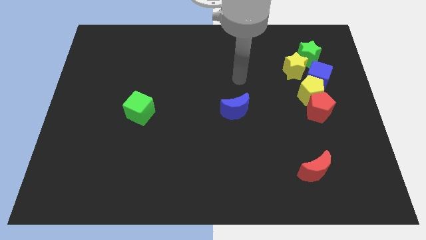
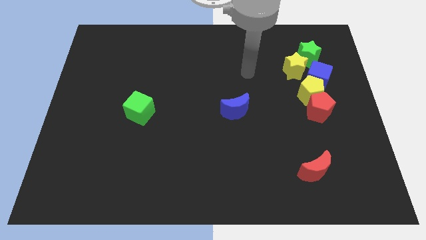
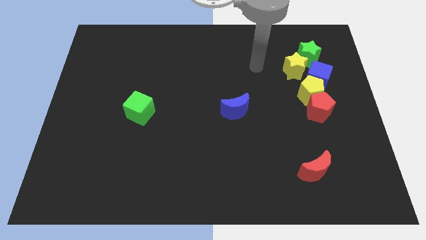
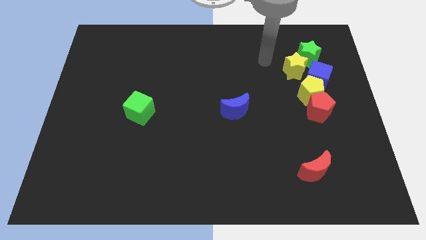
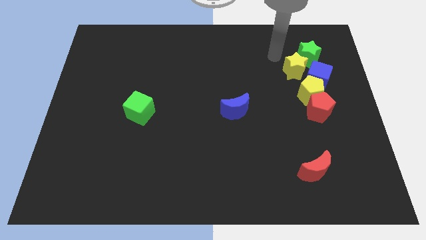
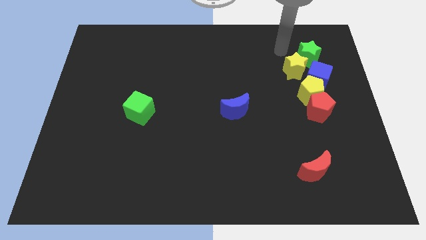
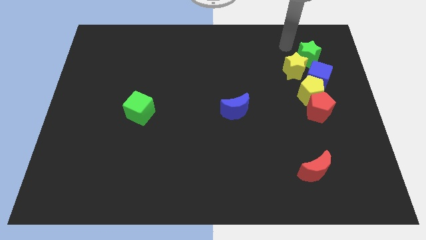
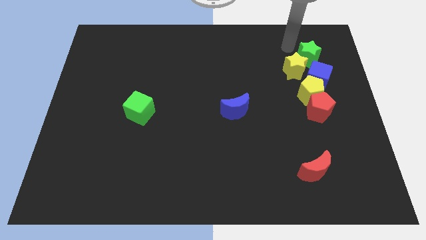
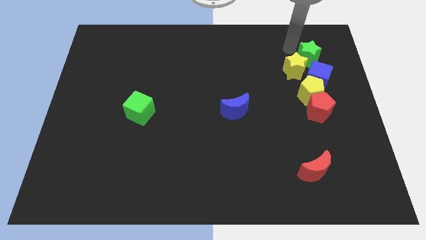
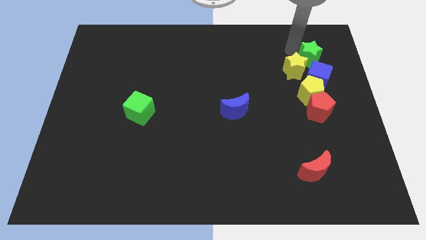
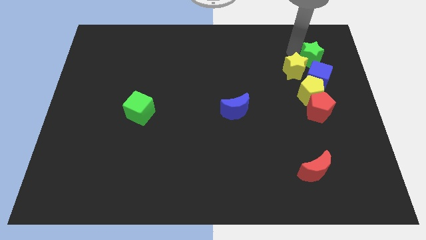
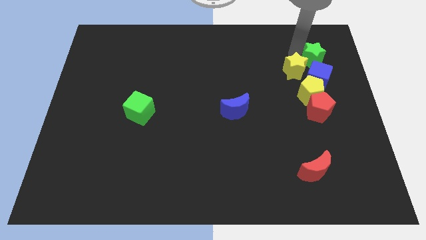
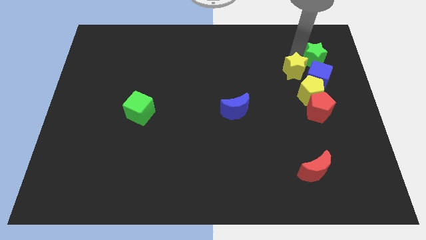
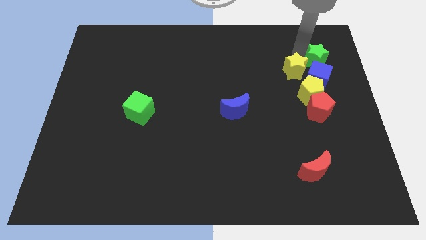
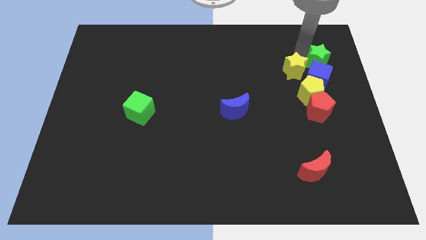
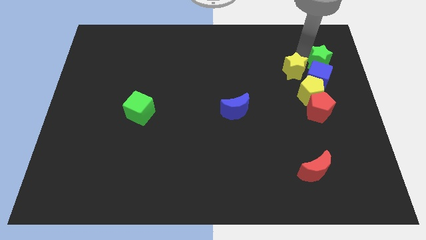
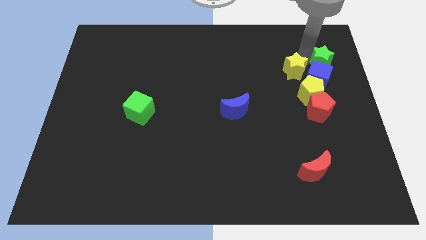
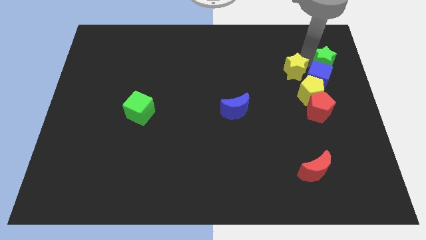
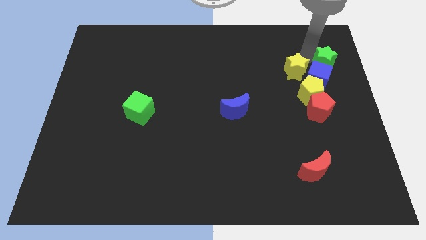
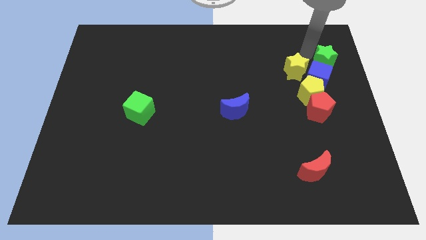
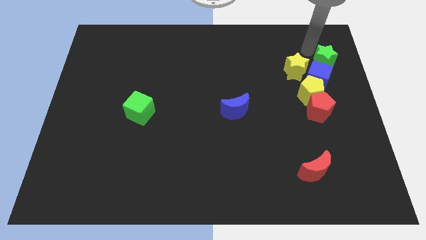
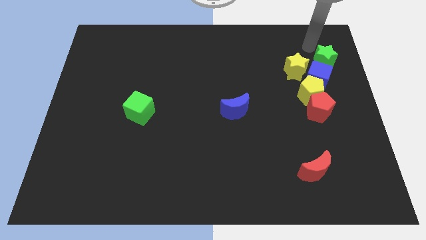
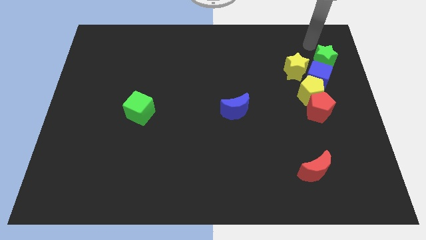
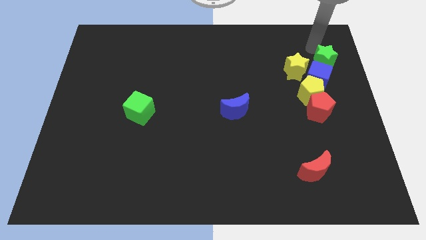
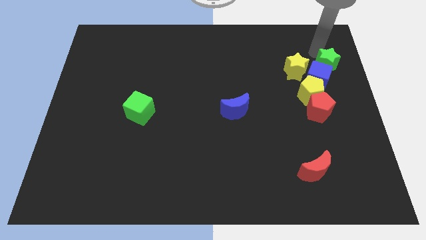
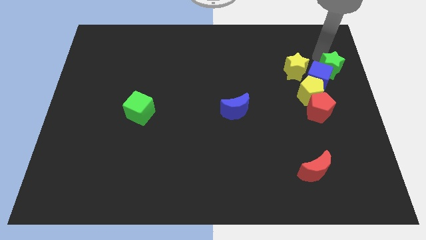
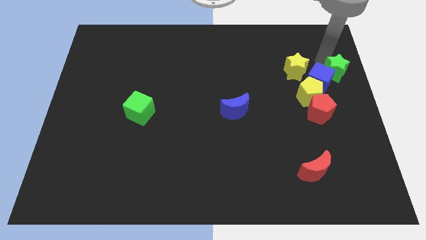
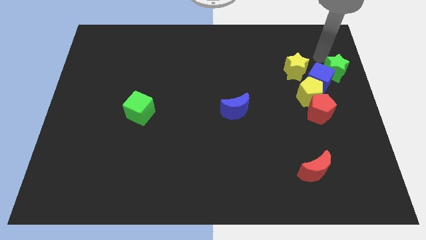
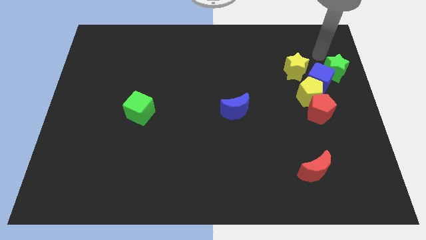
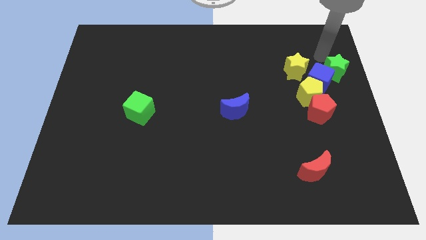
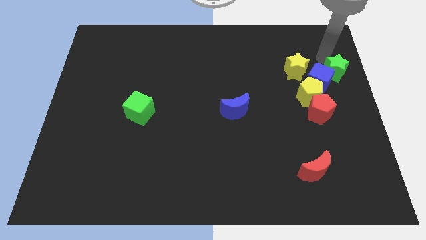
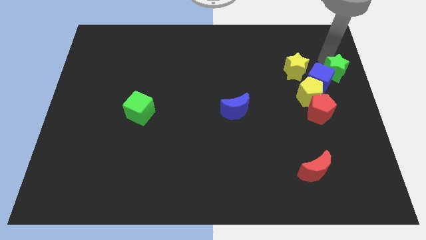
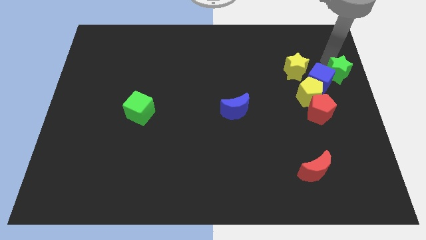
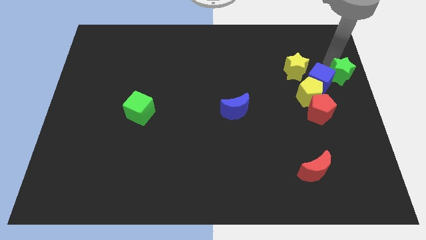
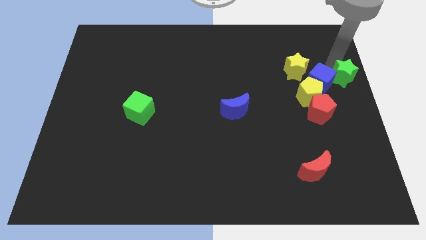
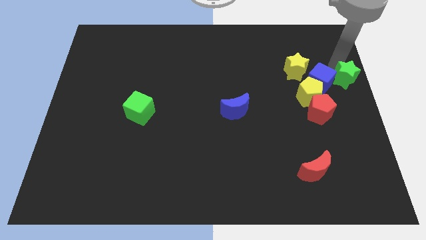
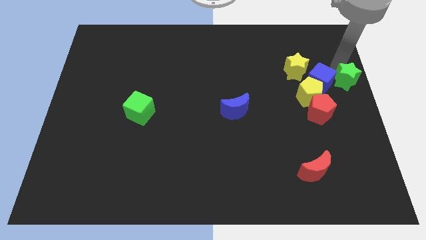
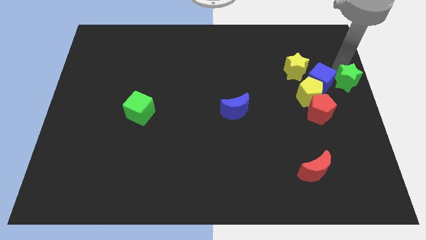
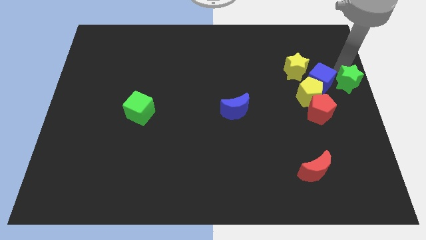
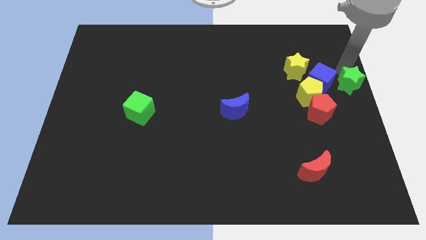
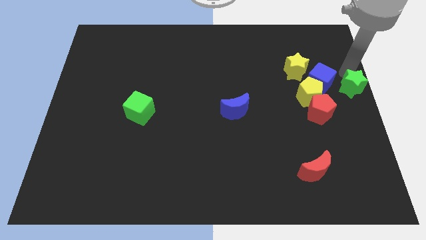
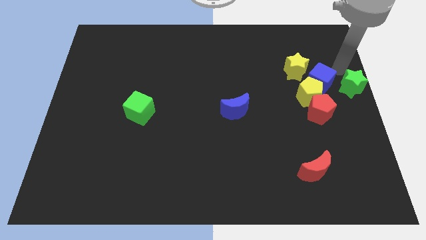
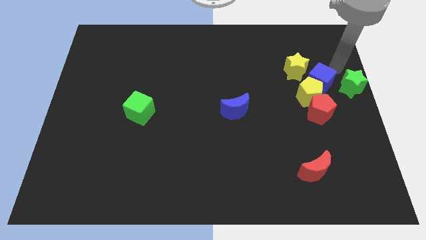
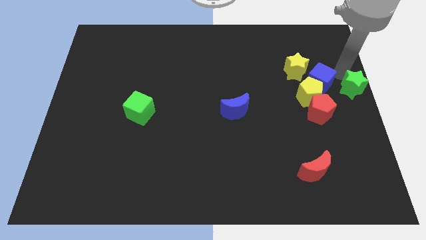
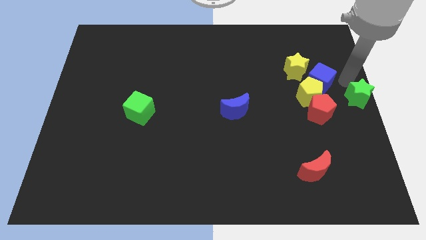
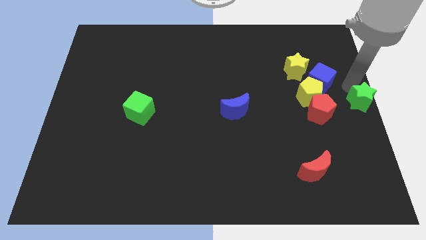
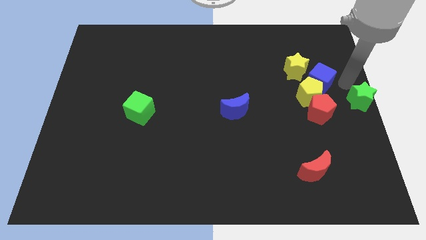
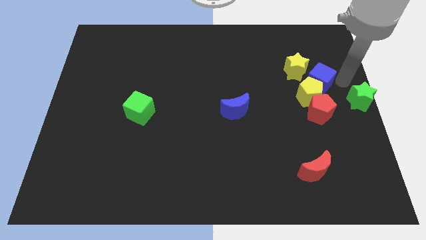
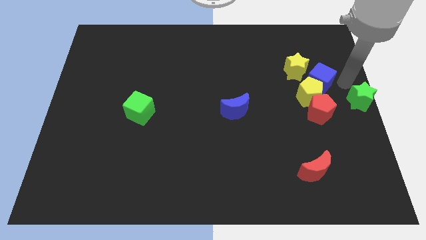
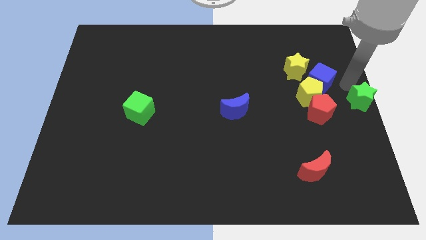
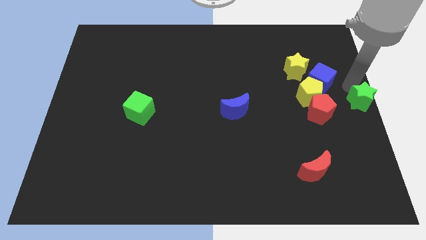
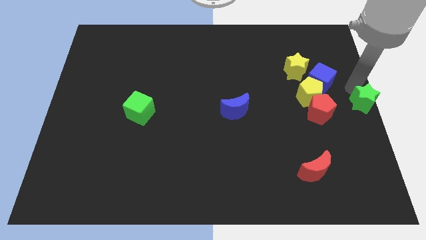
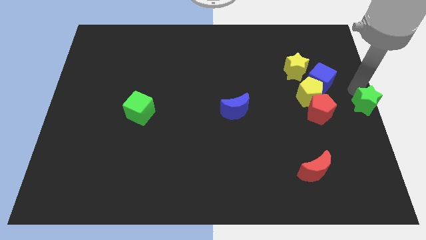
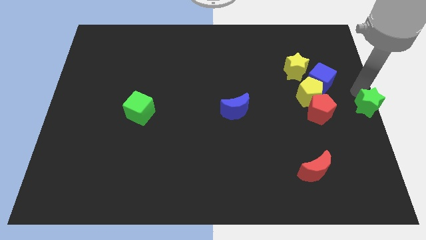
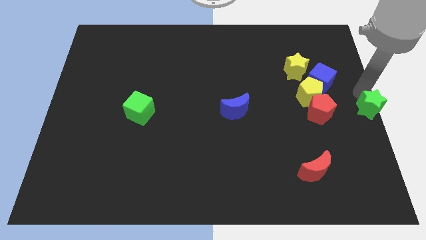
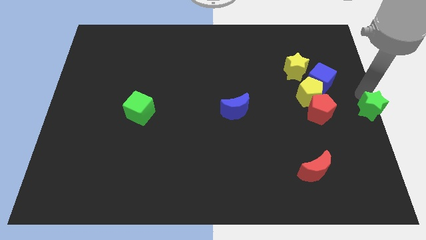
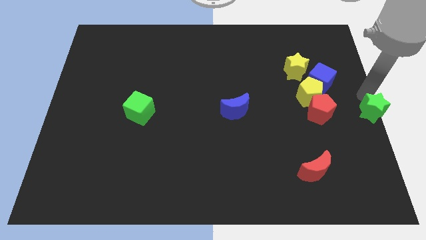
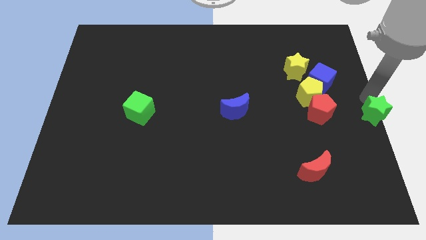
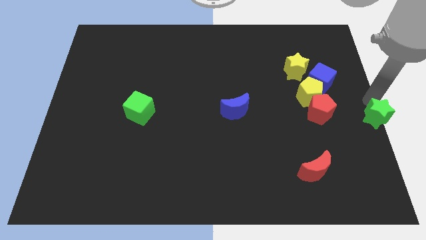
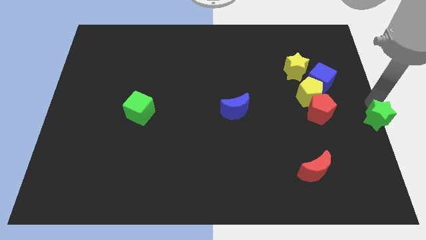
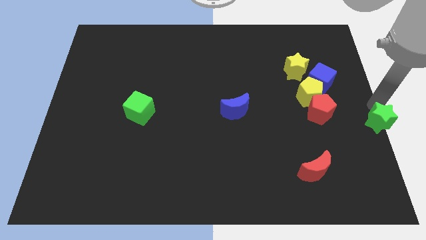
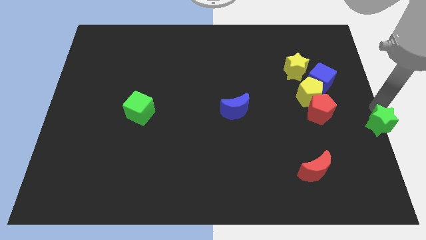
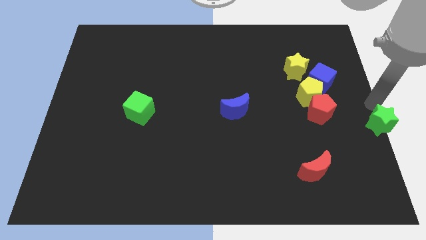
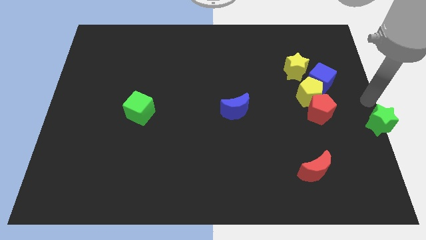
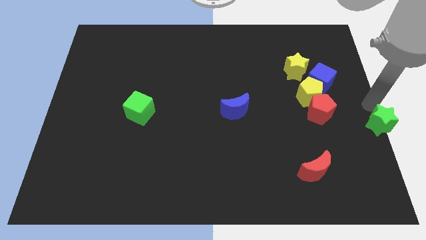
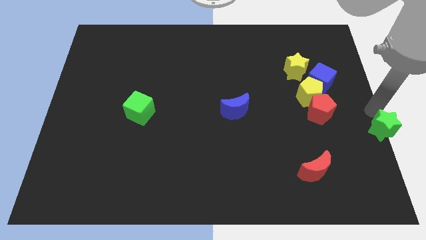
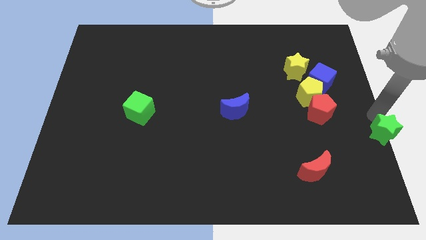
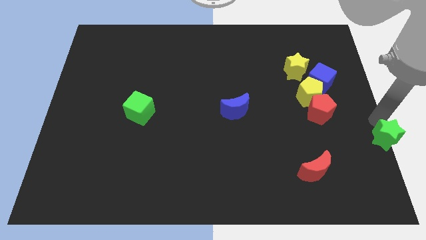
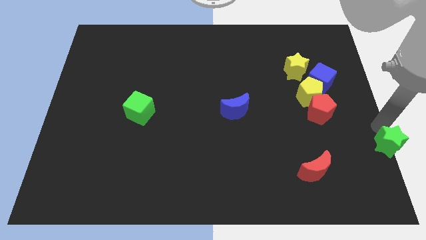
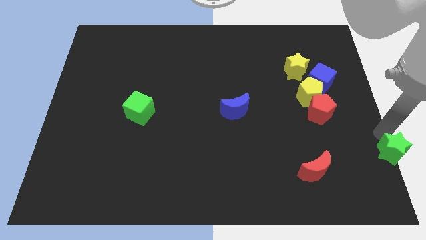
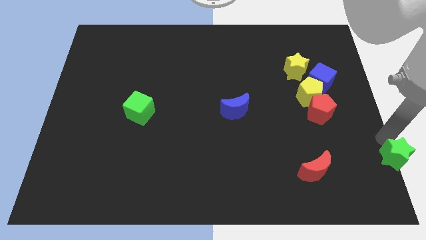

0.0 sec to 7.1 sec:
push the green star to the bottom right corner
